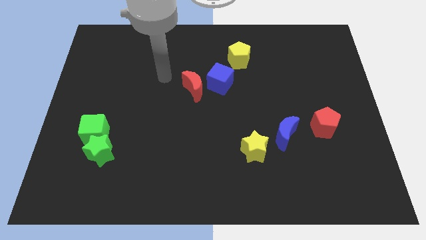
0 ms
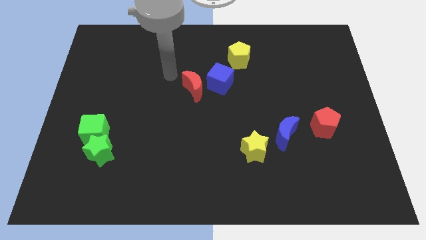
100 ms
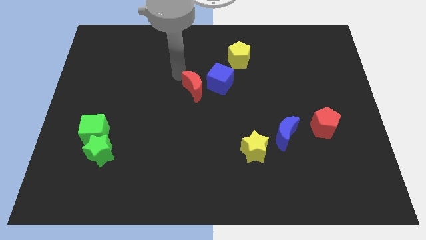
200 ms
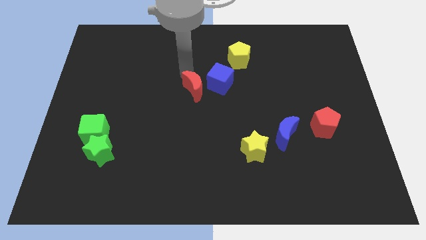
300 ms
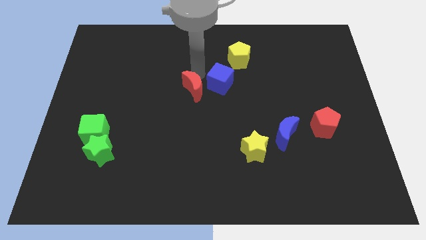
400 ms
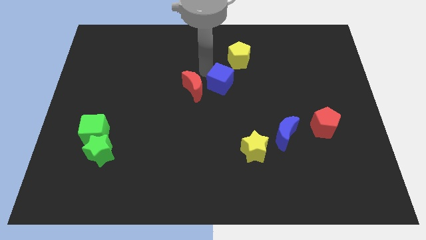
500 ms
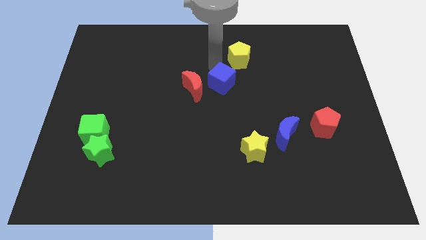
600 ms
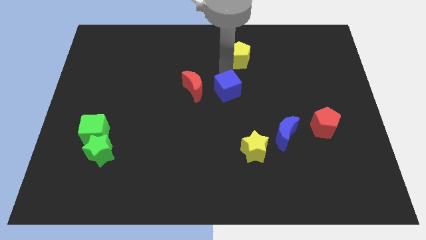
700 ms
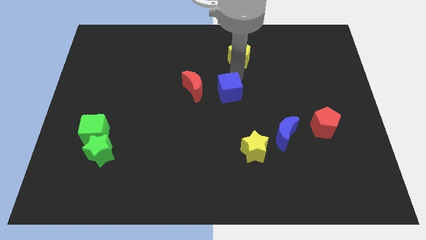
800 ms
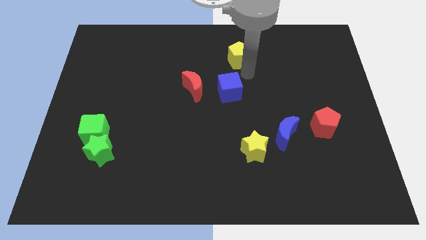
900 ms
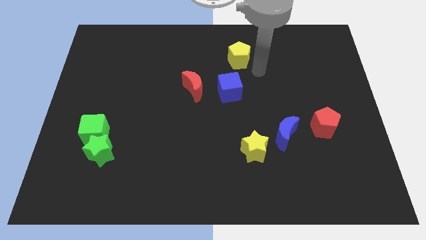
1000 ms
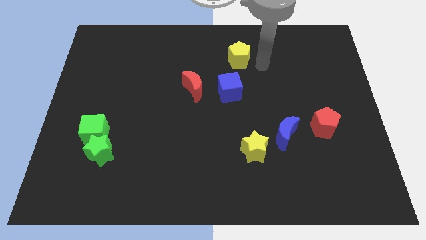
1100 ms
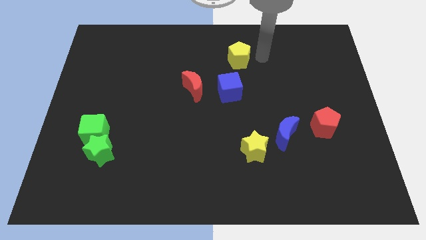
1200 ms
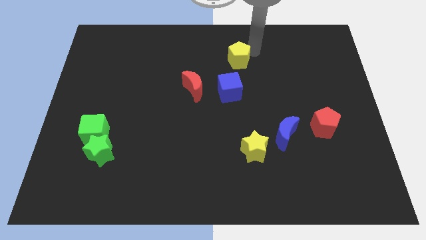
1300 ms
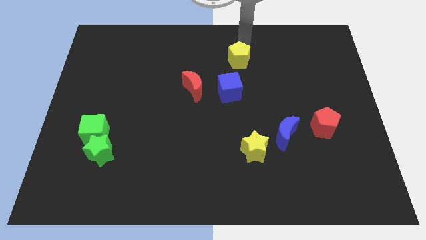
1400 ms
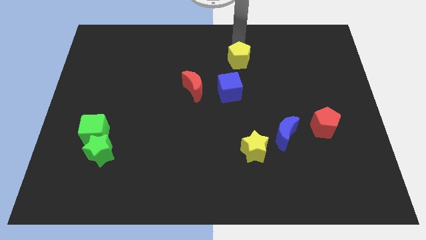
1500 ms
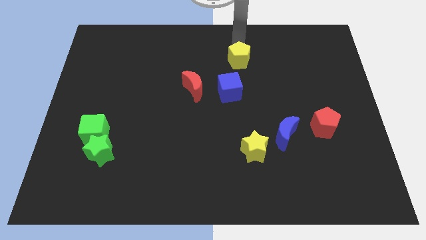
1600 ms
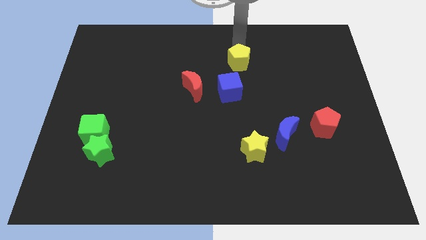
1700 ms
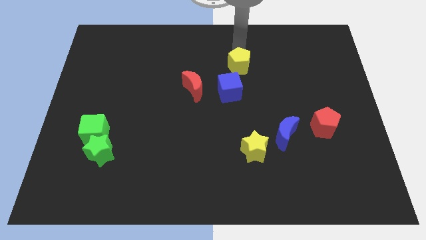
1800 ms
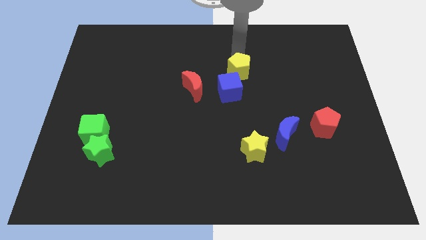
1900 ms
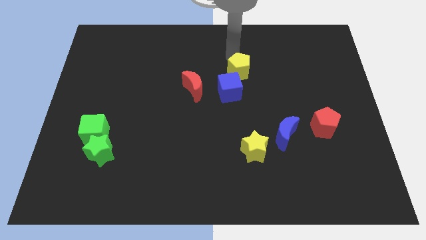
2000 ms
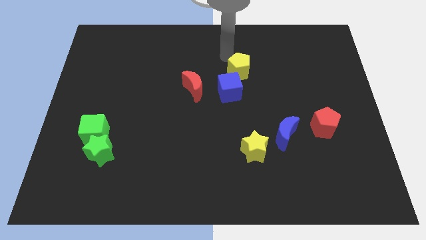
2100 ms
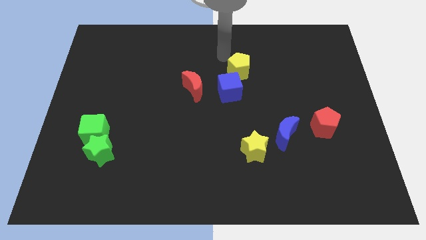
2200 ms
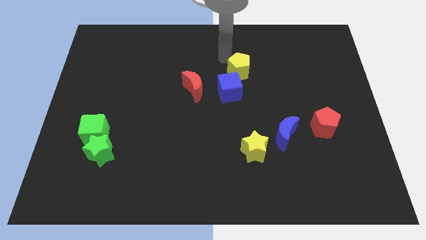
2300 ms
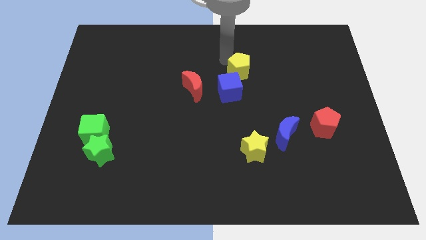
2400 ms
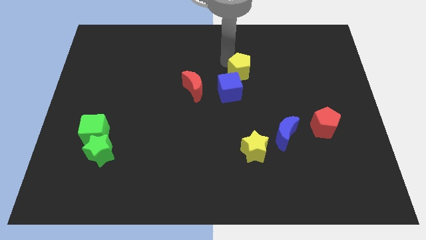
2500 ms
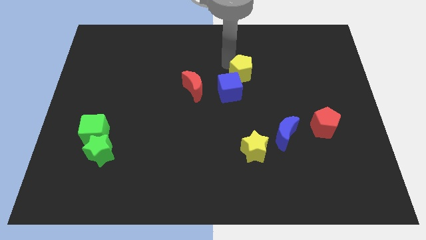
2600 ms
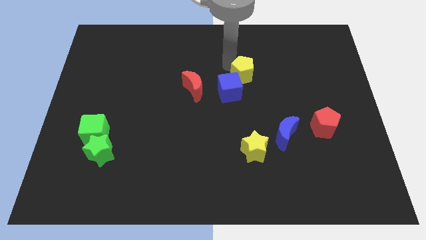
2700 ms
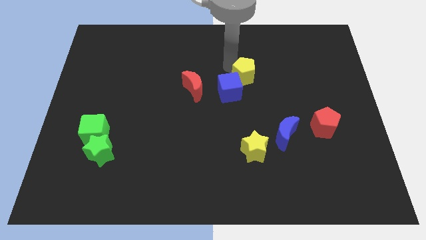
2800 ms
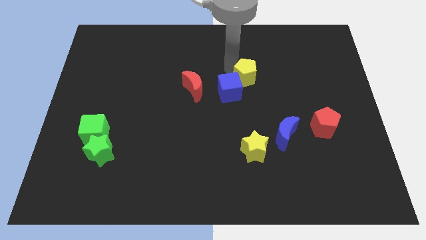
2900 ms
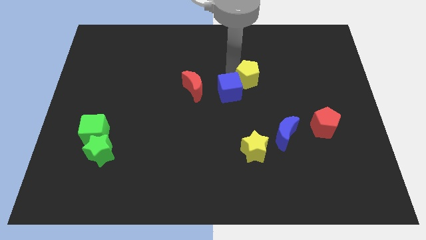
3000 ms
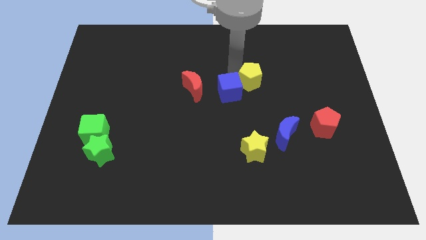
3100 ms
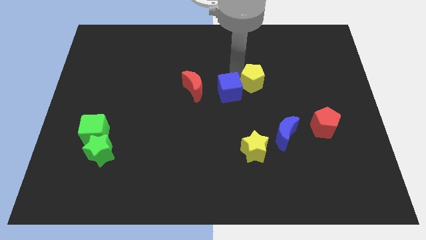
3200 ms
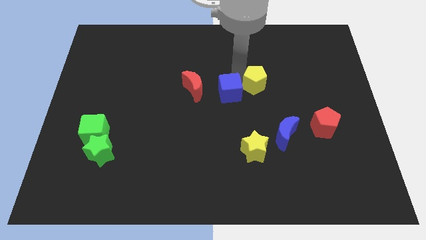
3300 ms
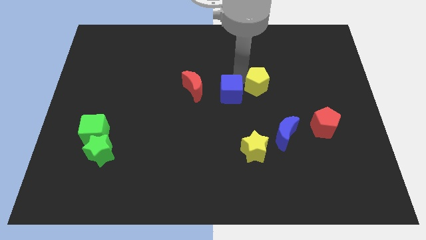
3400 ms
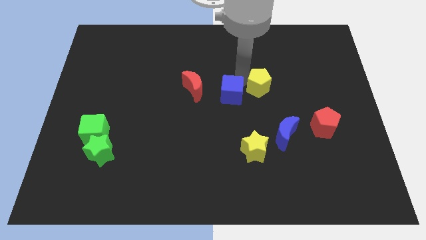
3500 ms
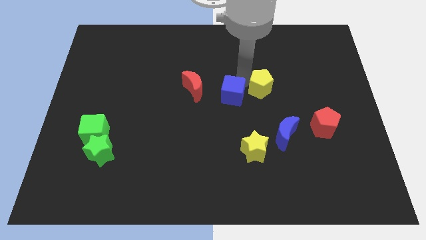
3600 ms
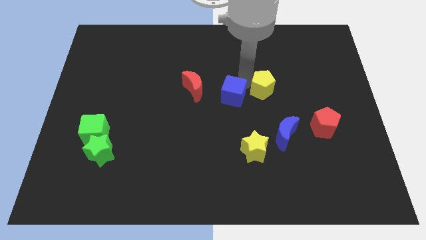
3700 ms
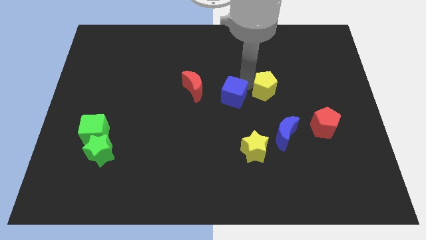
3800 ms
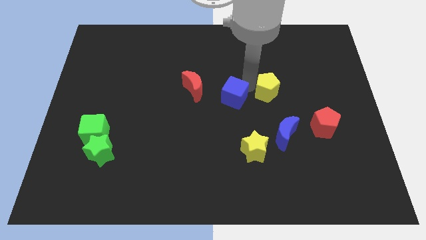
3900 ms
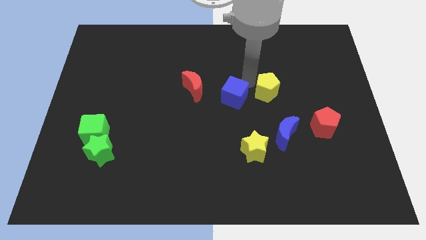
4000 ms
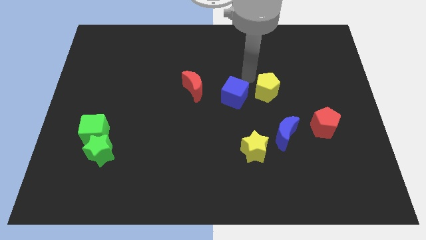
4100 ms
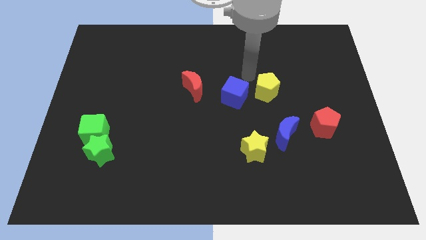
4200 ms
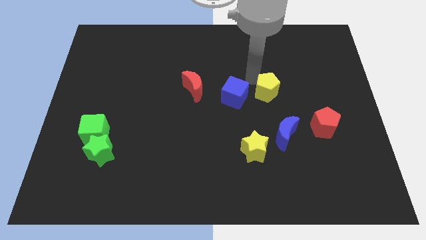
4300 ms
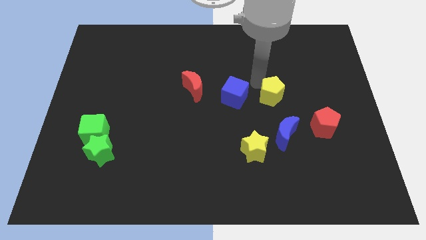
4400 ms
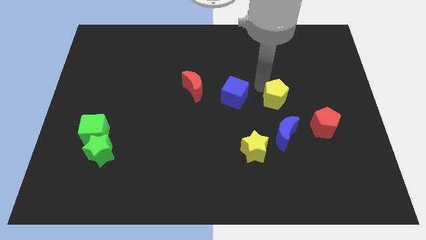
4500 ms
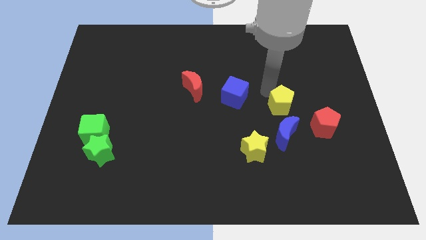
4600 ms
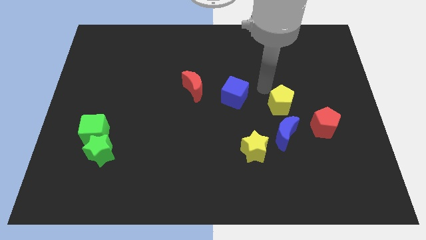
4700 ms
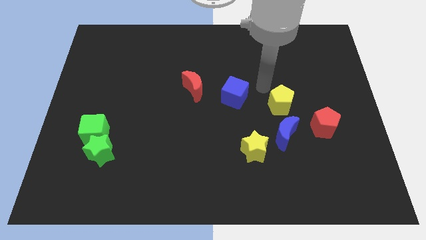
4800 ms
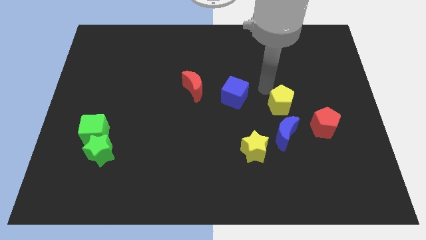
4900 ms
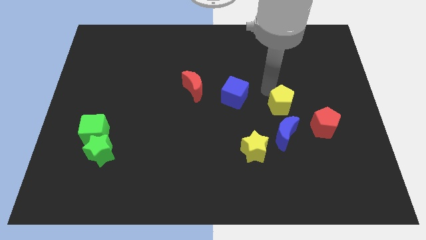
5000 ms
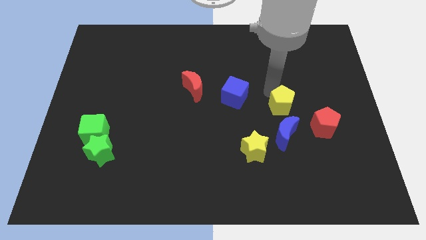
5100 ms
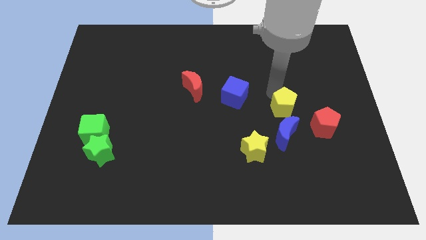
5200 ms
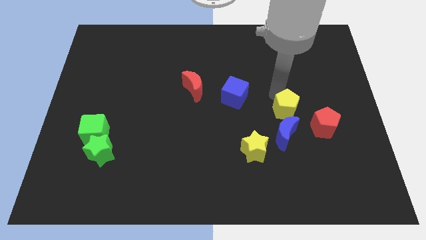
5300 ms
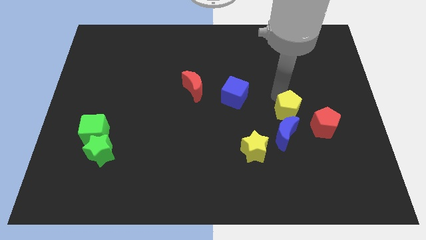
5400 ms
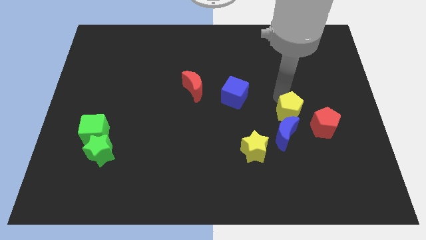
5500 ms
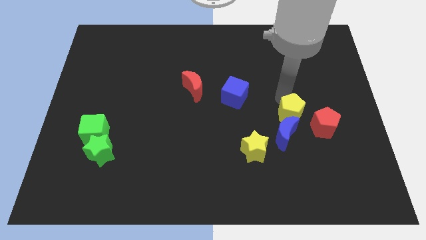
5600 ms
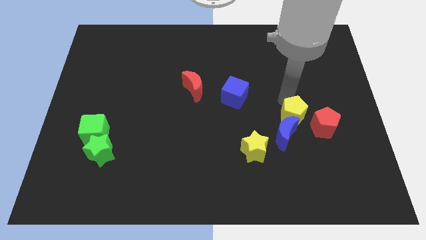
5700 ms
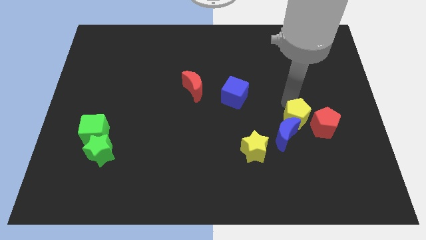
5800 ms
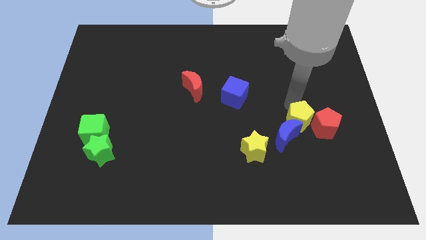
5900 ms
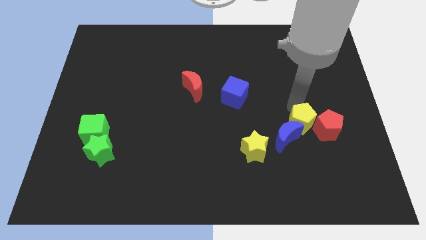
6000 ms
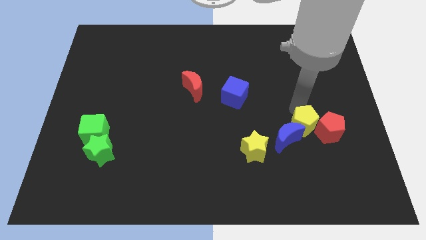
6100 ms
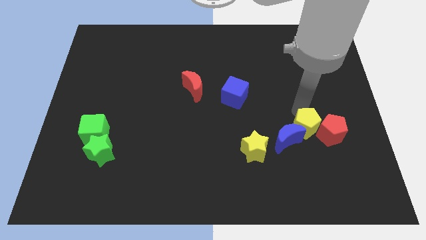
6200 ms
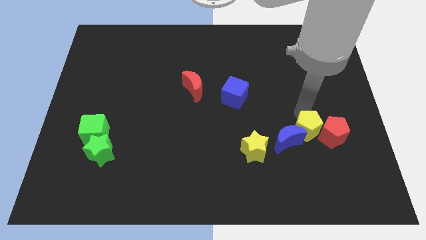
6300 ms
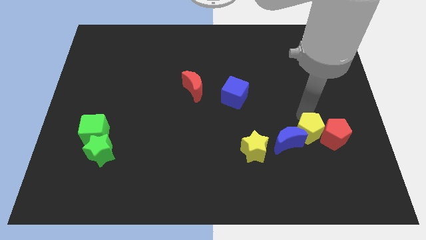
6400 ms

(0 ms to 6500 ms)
slide the yellow pentagon to the bottom left side of the red pentagon

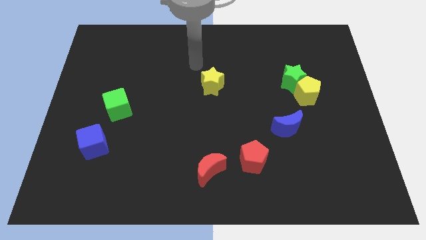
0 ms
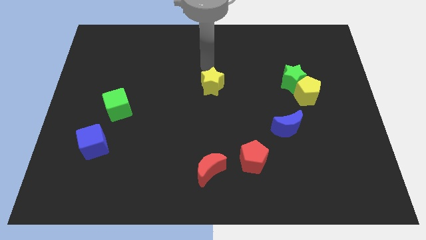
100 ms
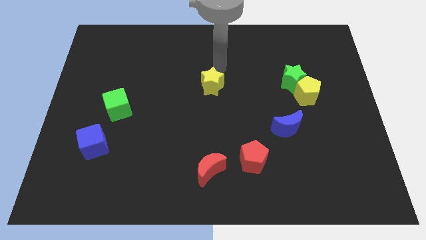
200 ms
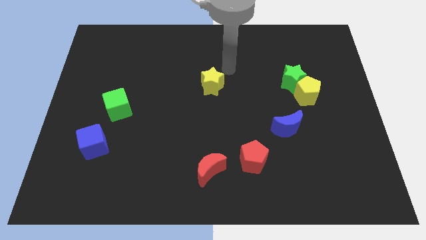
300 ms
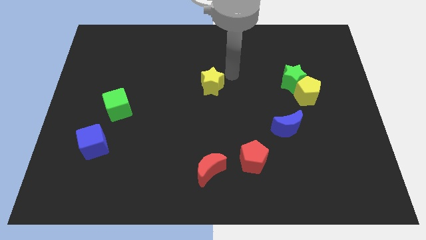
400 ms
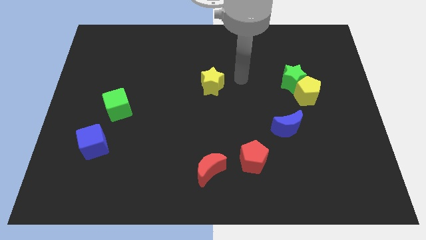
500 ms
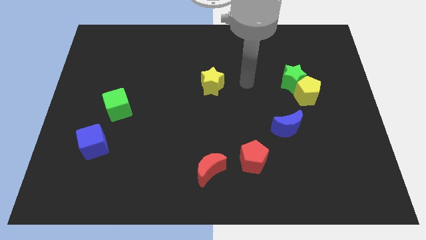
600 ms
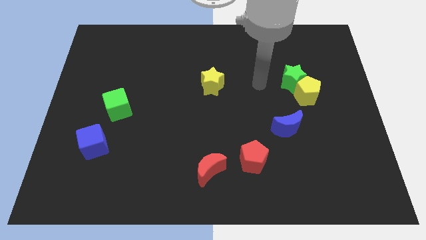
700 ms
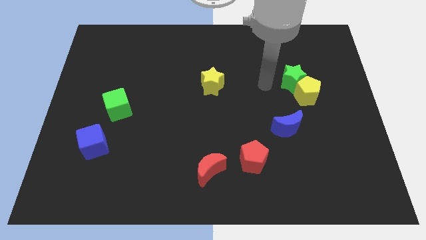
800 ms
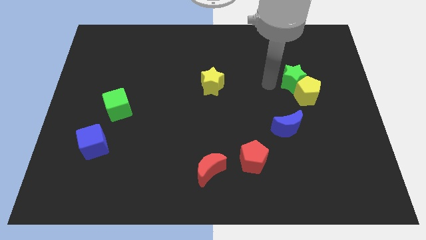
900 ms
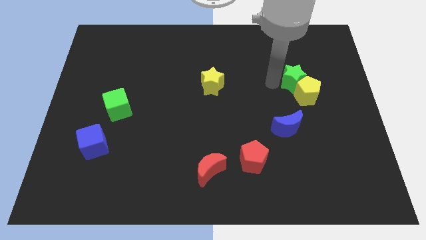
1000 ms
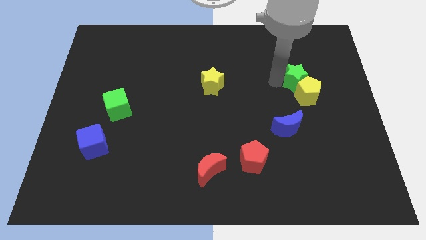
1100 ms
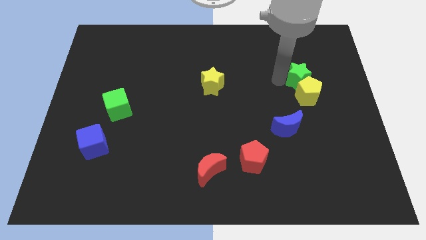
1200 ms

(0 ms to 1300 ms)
move the green star diagonally up and to the right of the yellow pentagon

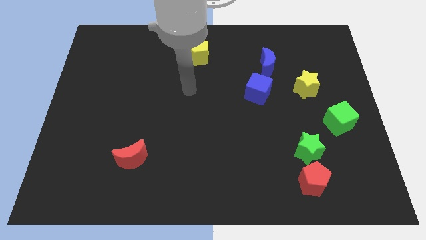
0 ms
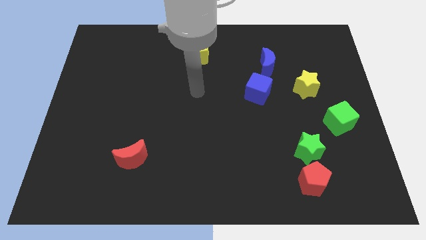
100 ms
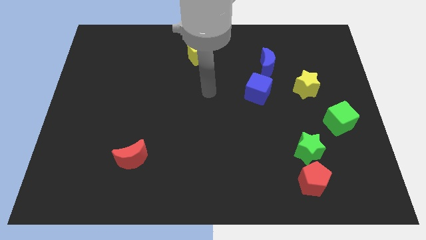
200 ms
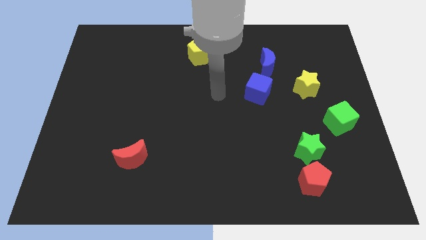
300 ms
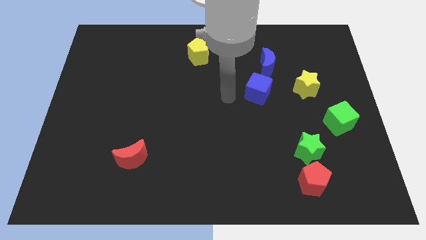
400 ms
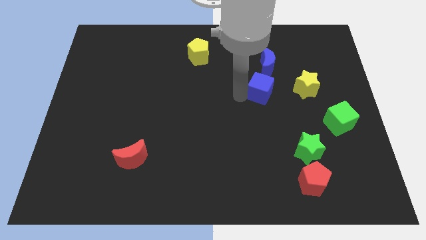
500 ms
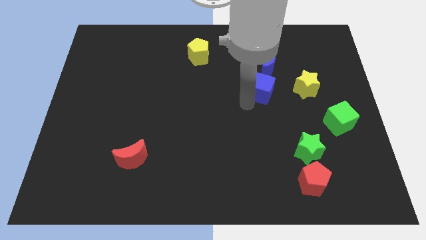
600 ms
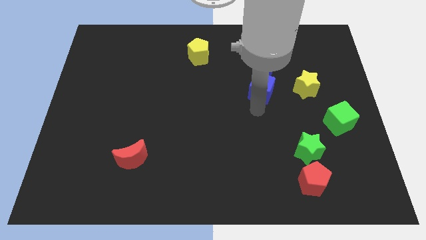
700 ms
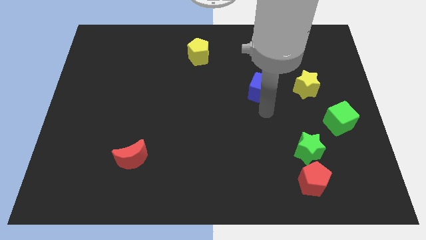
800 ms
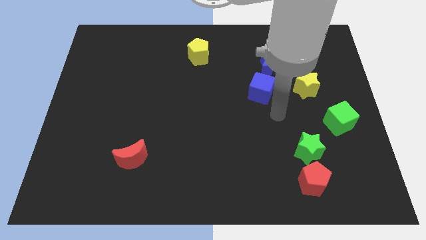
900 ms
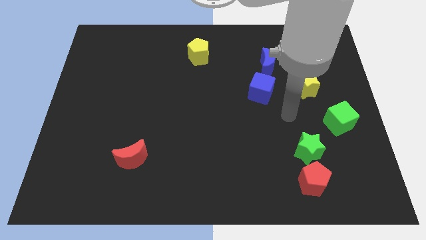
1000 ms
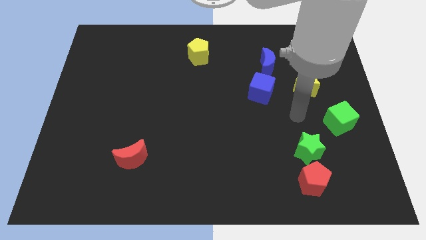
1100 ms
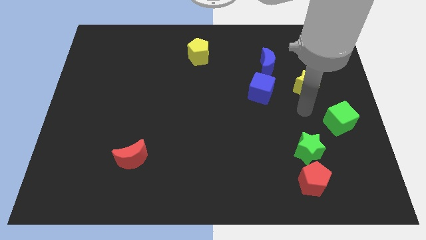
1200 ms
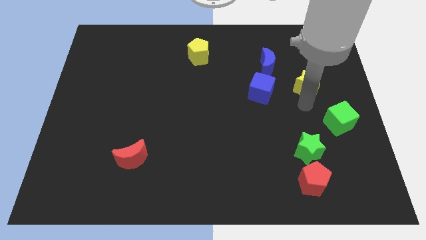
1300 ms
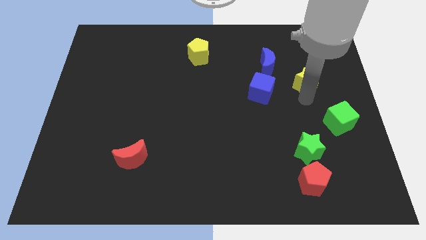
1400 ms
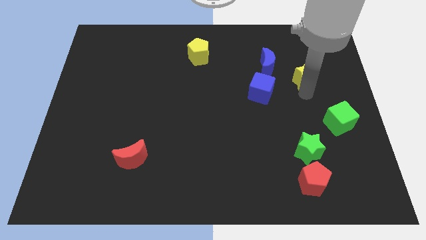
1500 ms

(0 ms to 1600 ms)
push the yellow star just right of the blue moon
